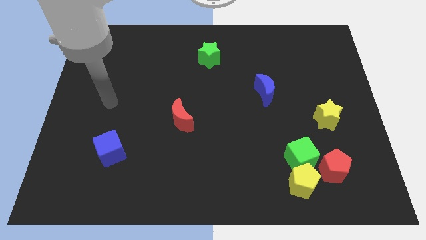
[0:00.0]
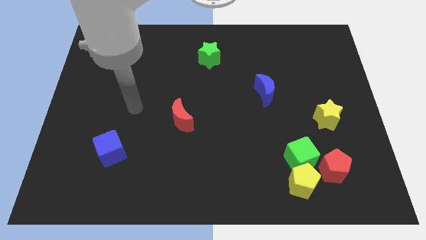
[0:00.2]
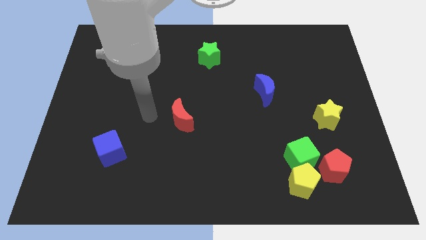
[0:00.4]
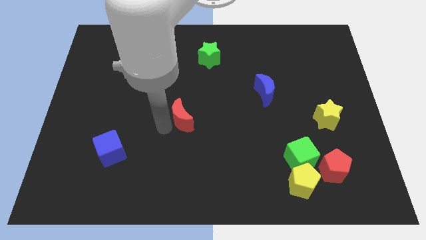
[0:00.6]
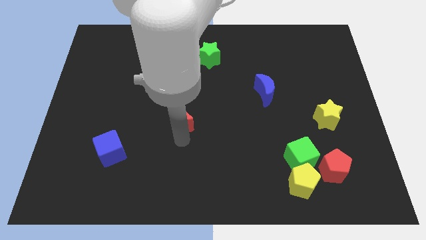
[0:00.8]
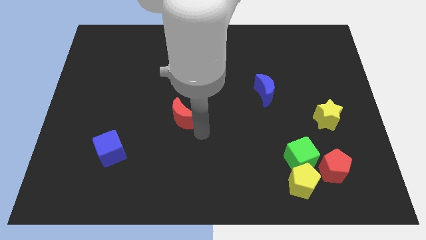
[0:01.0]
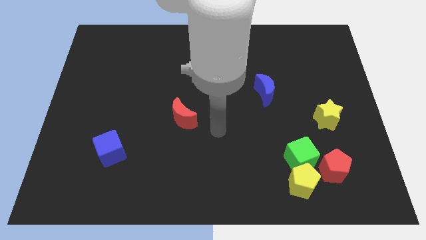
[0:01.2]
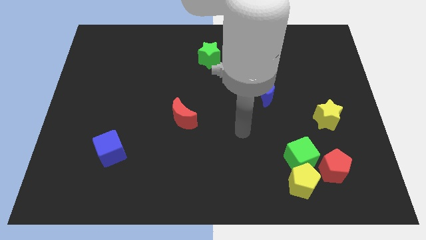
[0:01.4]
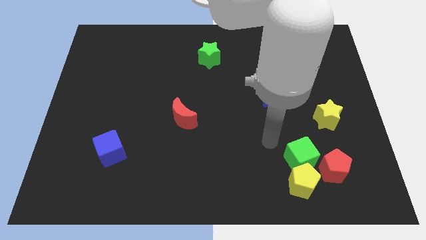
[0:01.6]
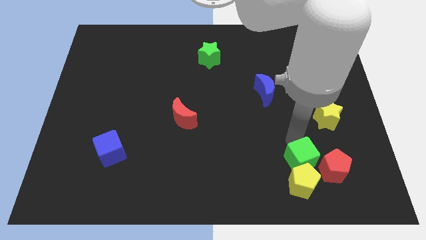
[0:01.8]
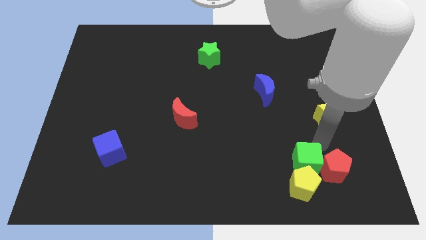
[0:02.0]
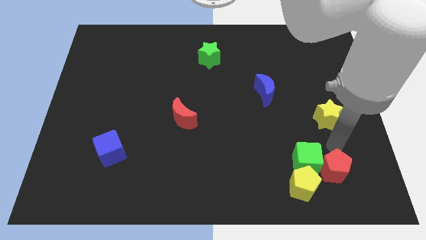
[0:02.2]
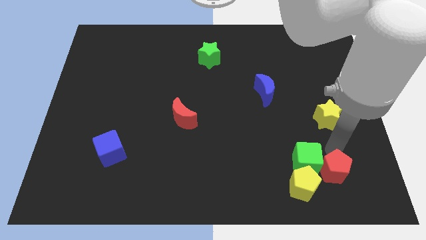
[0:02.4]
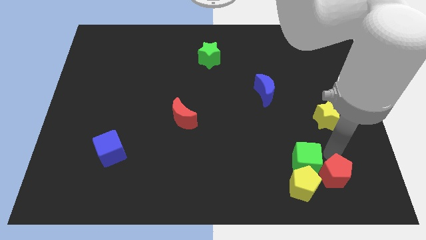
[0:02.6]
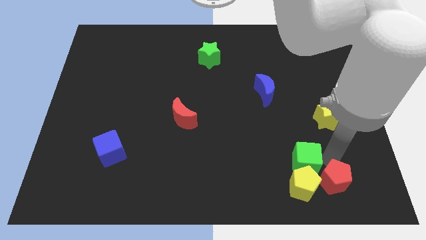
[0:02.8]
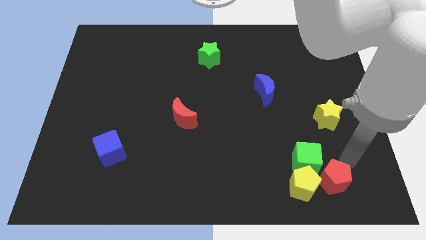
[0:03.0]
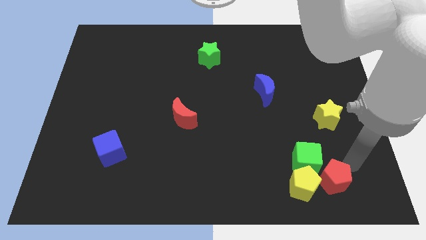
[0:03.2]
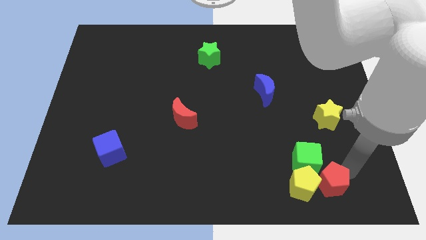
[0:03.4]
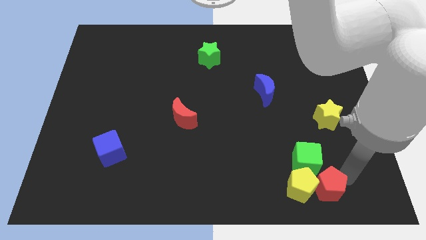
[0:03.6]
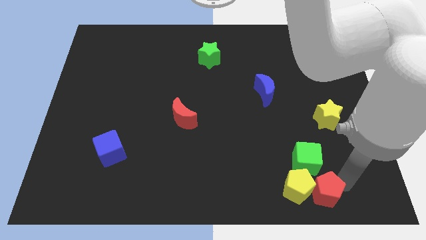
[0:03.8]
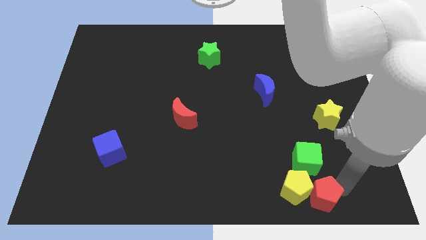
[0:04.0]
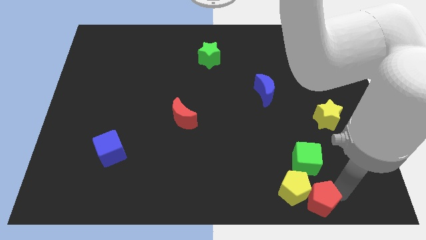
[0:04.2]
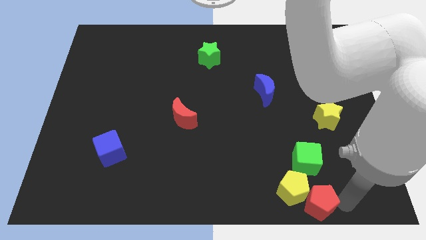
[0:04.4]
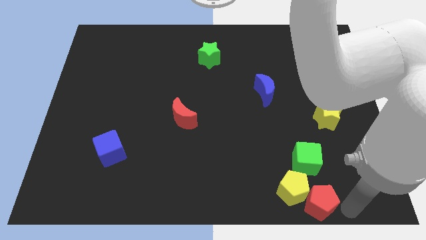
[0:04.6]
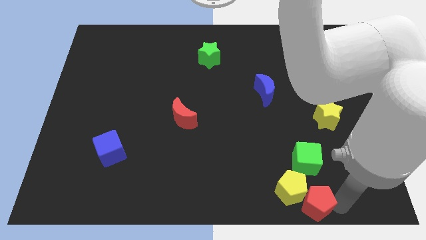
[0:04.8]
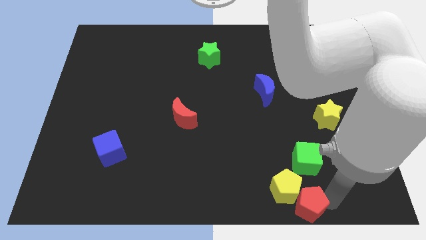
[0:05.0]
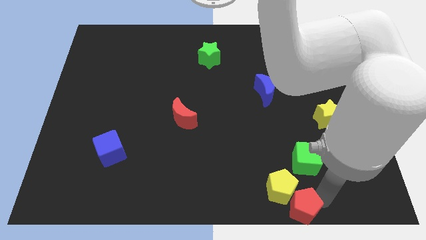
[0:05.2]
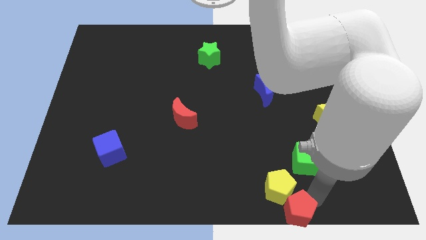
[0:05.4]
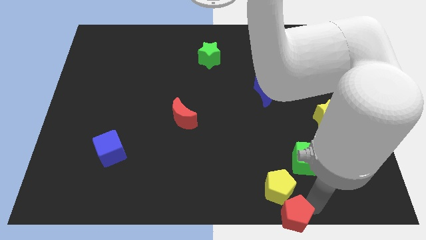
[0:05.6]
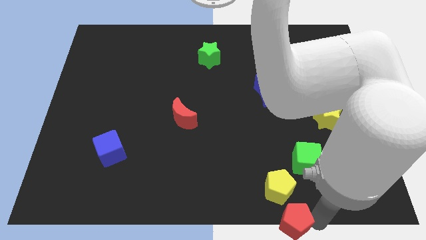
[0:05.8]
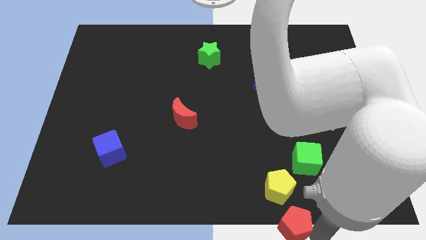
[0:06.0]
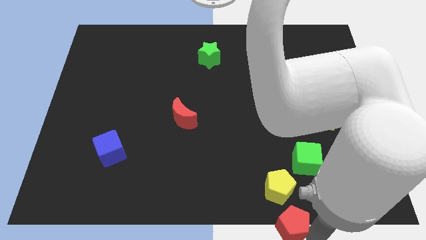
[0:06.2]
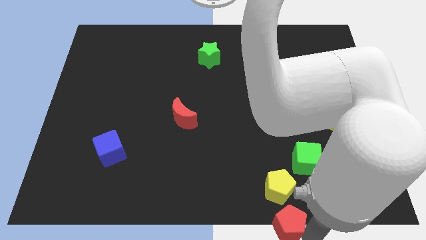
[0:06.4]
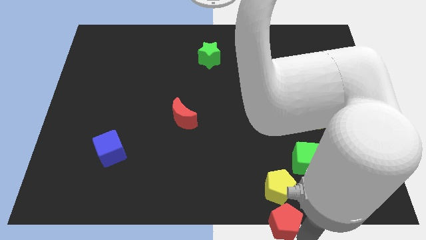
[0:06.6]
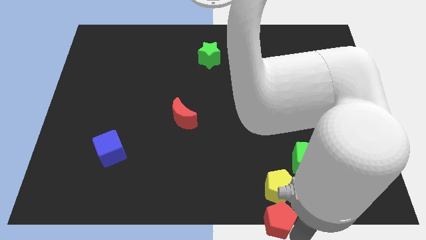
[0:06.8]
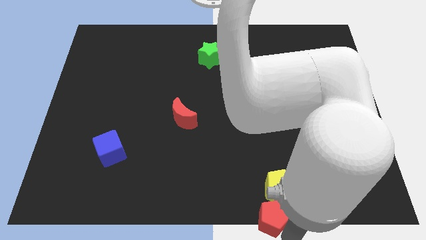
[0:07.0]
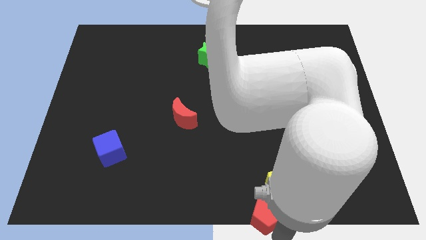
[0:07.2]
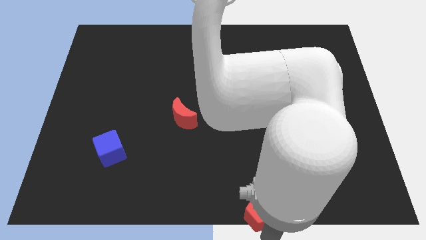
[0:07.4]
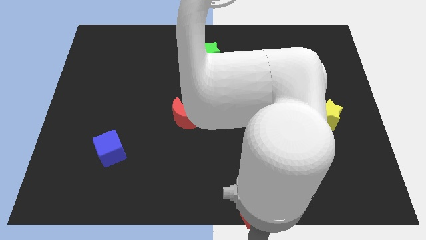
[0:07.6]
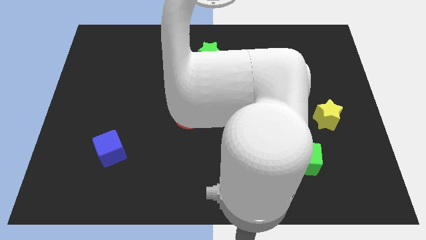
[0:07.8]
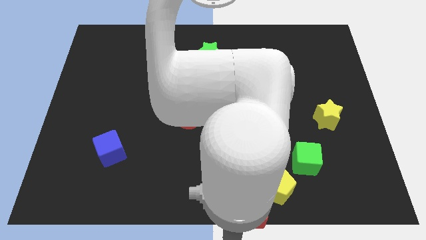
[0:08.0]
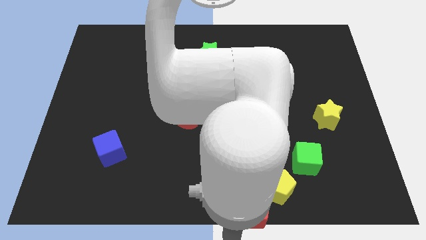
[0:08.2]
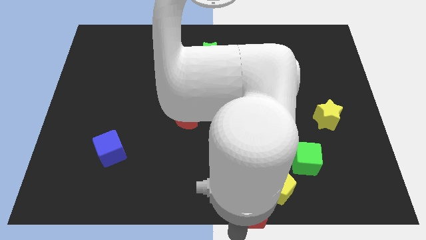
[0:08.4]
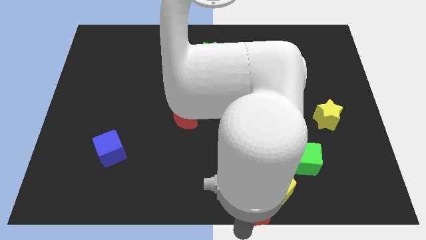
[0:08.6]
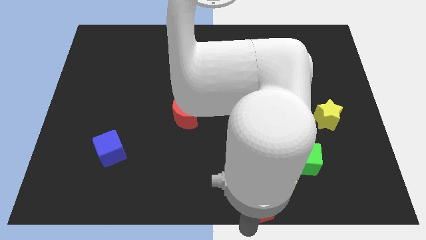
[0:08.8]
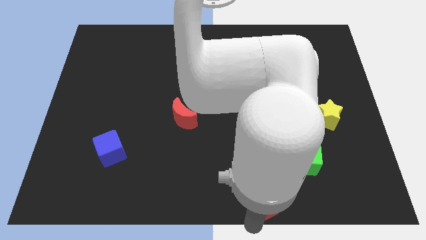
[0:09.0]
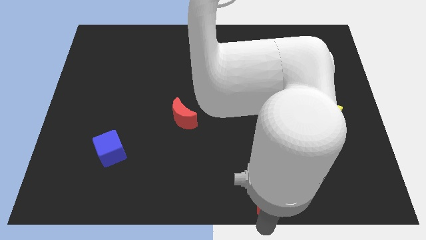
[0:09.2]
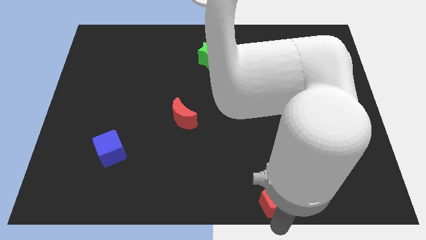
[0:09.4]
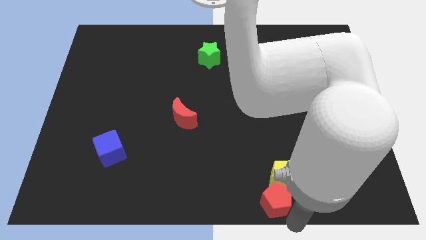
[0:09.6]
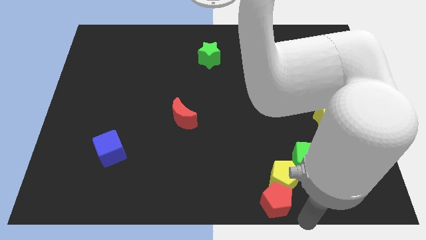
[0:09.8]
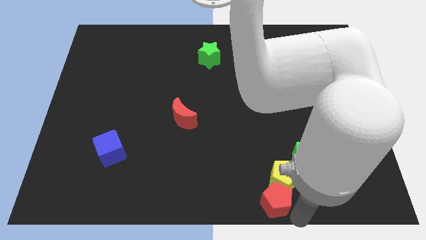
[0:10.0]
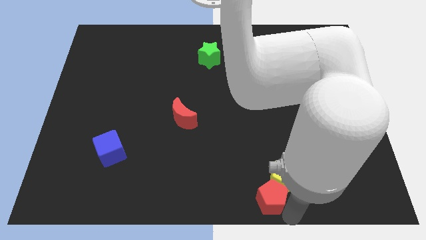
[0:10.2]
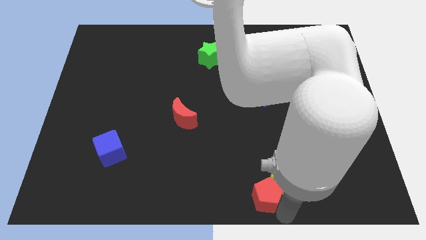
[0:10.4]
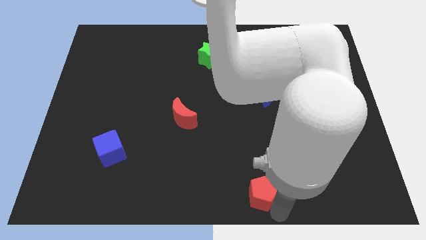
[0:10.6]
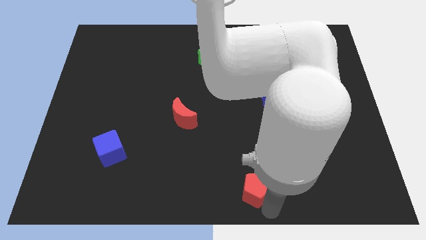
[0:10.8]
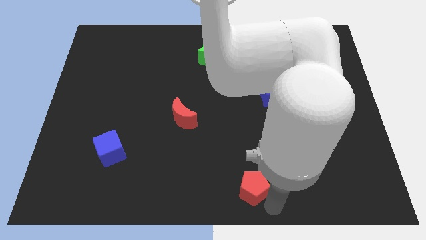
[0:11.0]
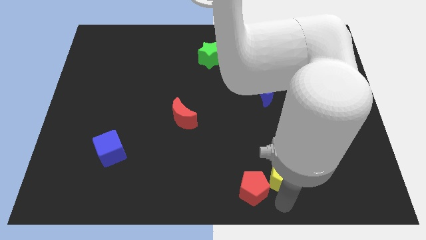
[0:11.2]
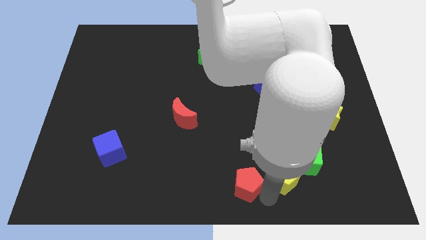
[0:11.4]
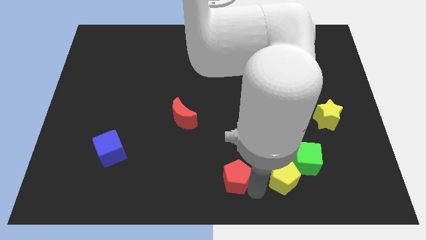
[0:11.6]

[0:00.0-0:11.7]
slide the red pentagon to the left

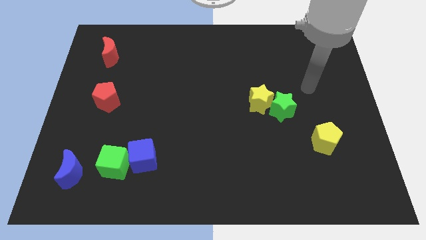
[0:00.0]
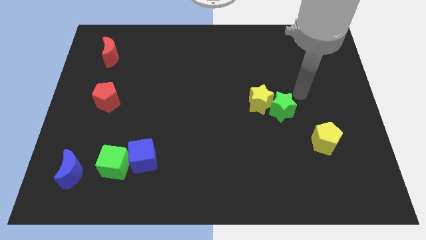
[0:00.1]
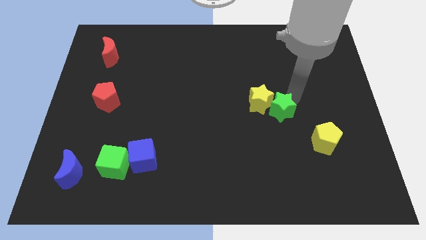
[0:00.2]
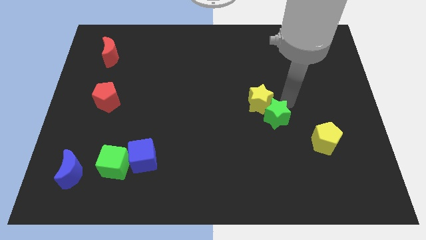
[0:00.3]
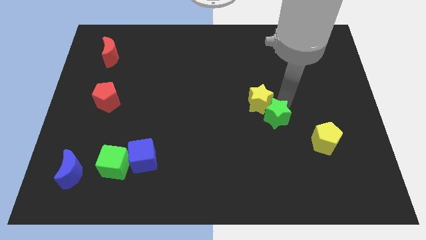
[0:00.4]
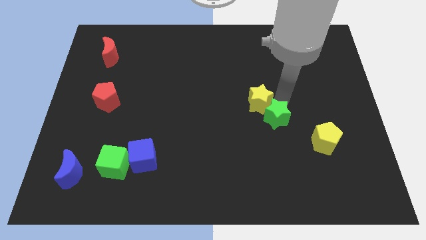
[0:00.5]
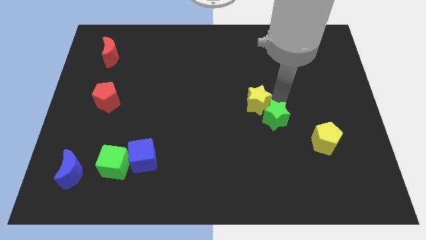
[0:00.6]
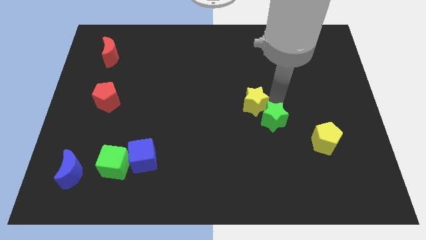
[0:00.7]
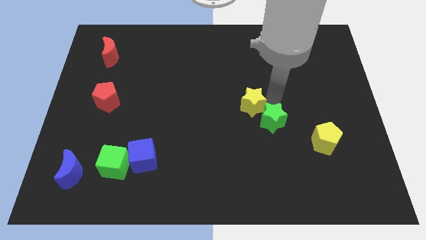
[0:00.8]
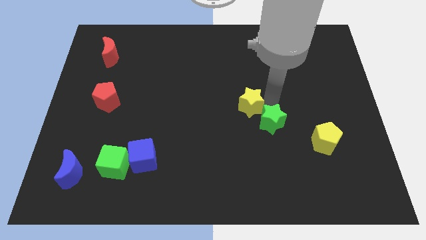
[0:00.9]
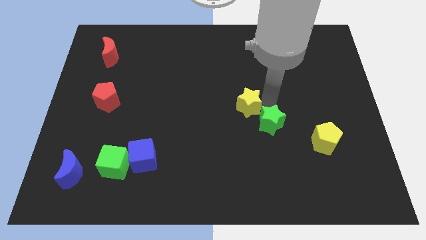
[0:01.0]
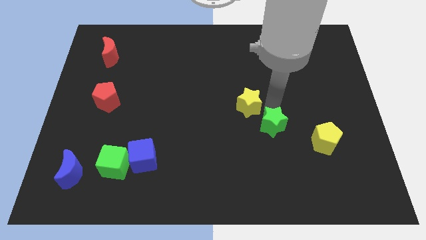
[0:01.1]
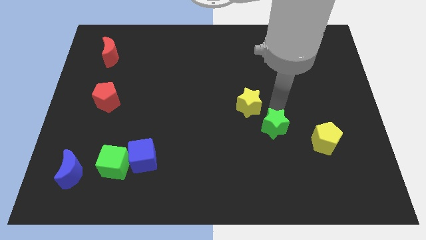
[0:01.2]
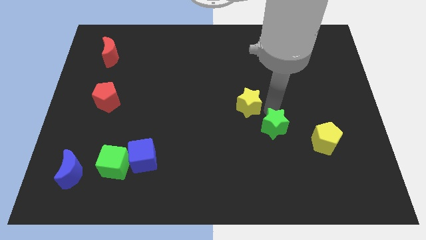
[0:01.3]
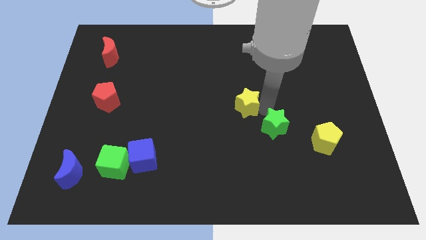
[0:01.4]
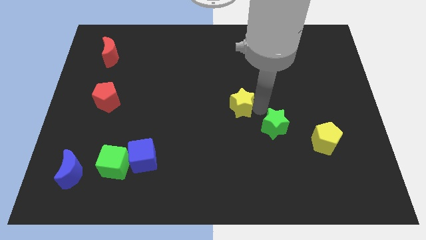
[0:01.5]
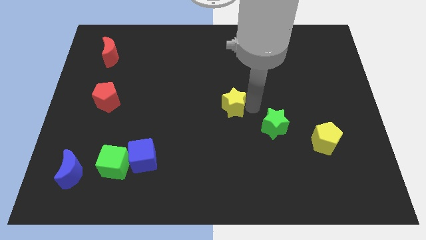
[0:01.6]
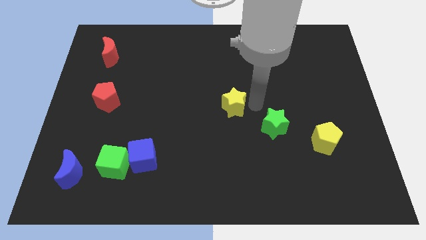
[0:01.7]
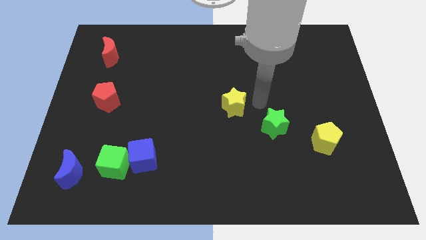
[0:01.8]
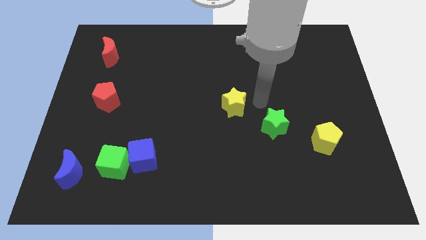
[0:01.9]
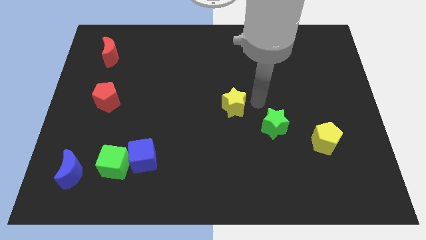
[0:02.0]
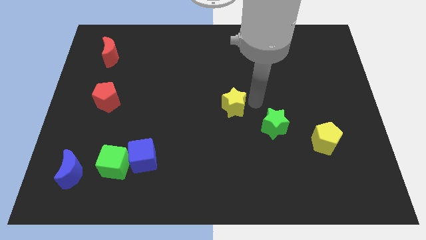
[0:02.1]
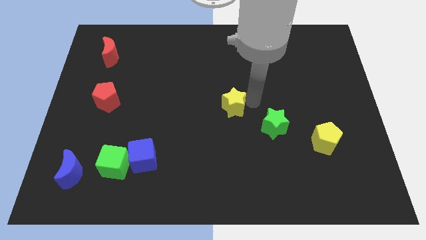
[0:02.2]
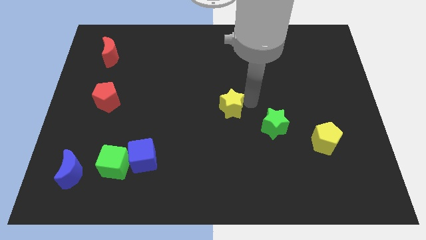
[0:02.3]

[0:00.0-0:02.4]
slide the yellow star left a little bit
